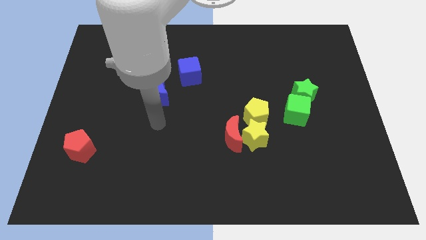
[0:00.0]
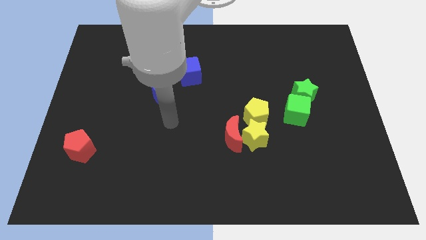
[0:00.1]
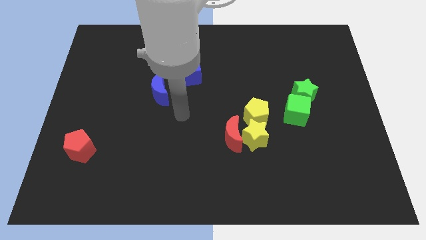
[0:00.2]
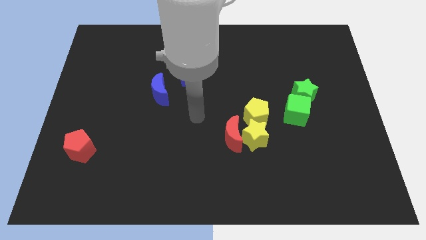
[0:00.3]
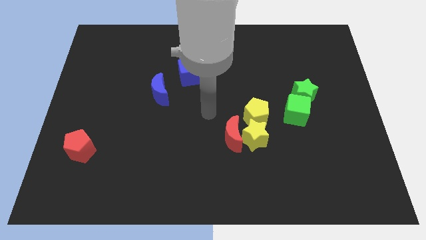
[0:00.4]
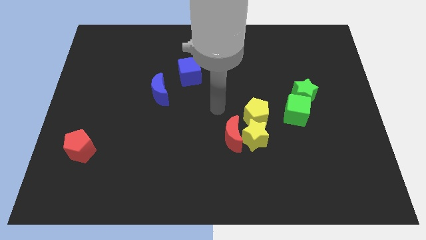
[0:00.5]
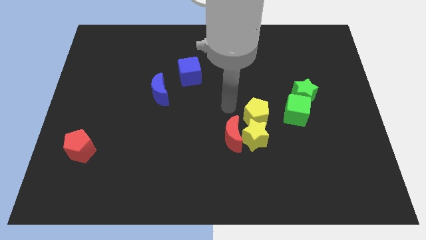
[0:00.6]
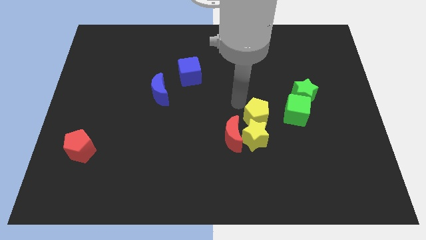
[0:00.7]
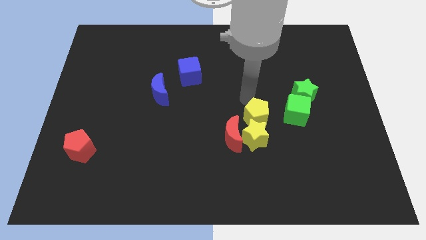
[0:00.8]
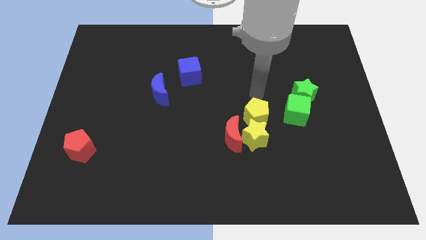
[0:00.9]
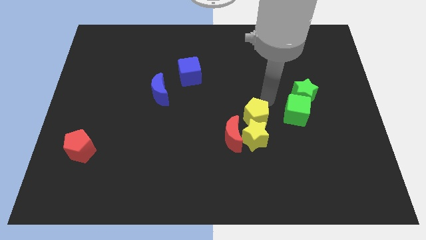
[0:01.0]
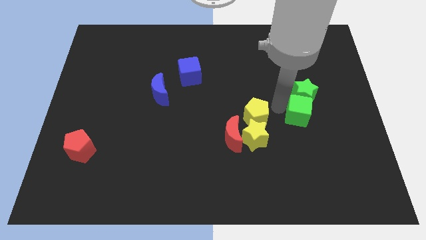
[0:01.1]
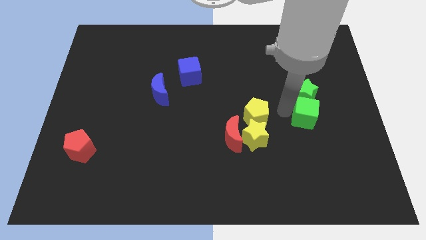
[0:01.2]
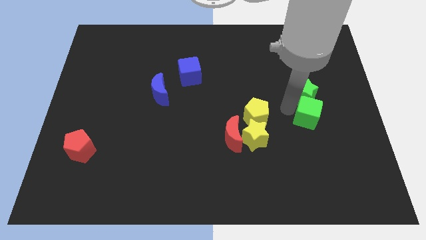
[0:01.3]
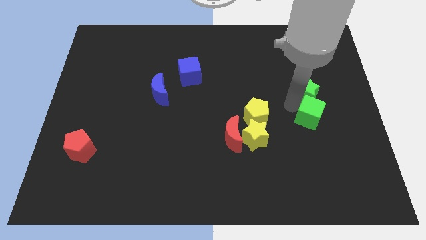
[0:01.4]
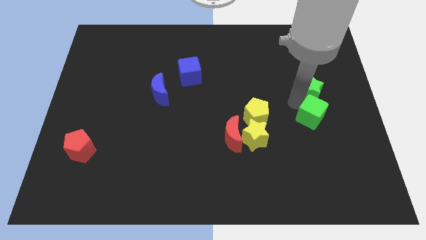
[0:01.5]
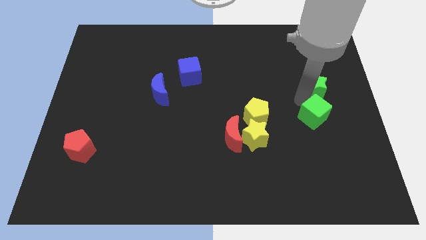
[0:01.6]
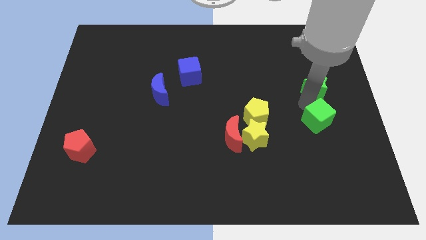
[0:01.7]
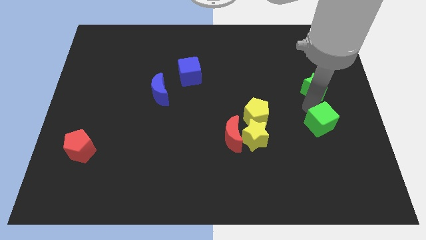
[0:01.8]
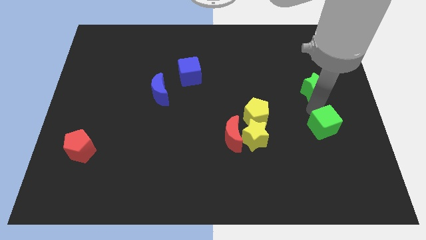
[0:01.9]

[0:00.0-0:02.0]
separate the green star from the green cube

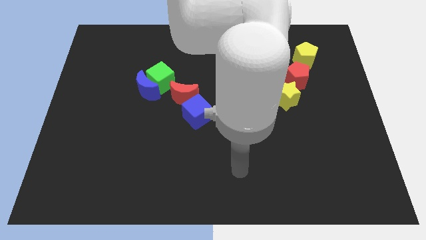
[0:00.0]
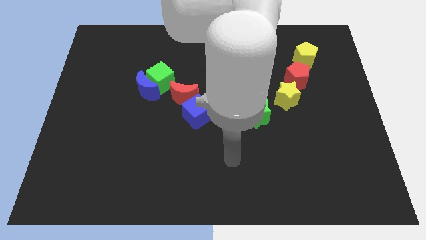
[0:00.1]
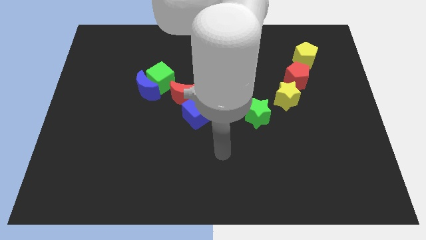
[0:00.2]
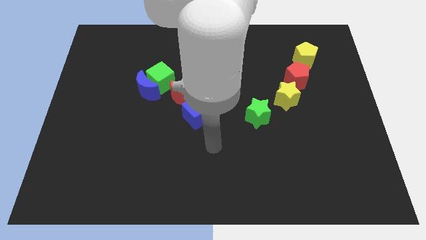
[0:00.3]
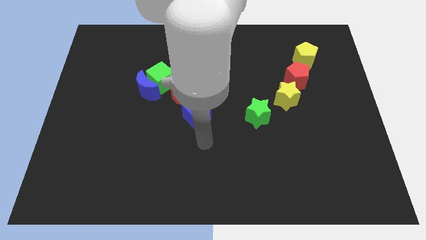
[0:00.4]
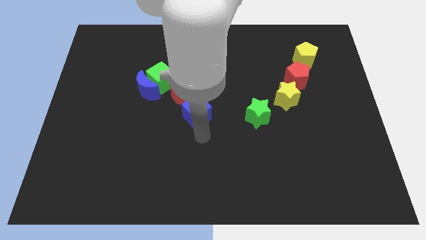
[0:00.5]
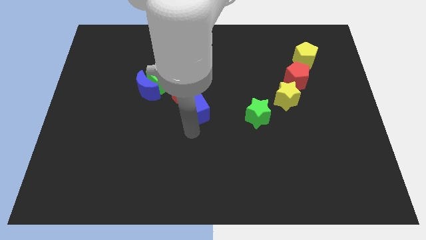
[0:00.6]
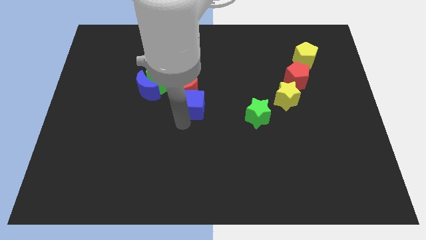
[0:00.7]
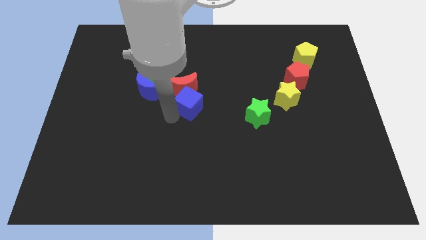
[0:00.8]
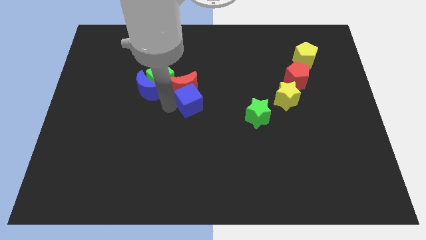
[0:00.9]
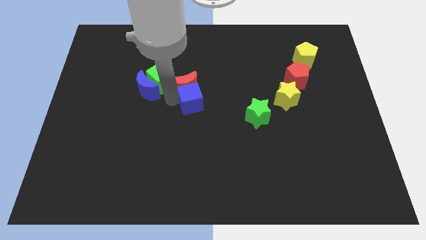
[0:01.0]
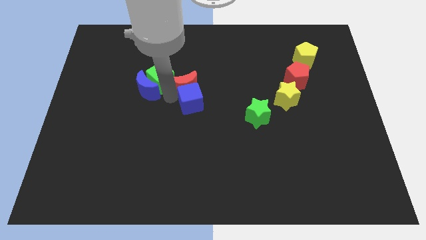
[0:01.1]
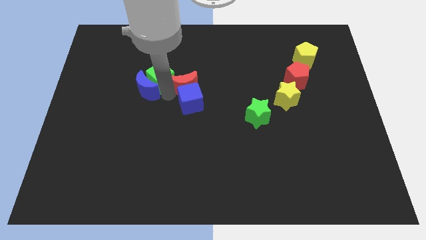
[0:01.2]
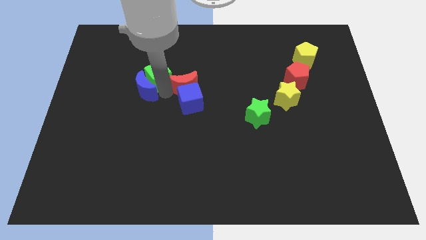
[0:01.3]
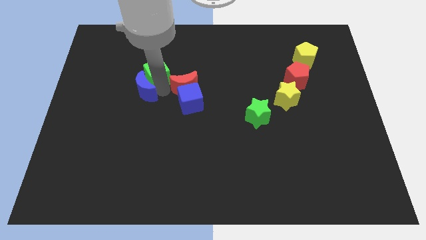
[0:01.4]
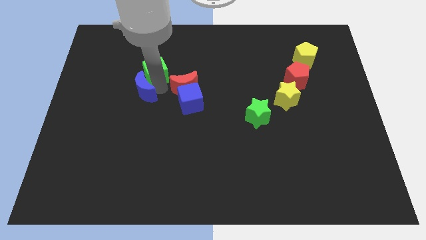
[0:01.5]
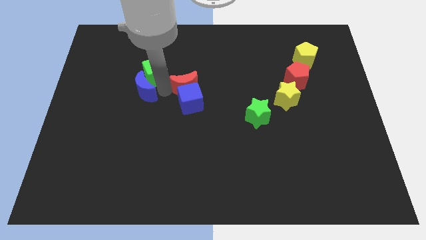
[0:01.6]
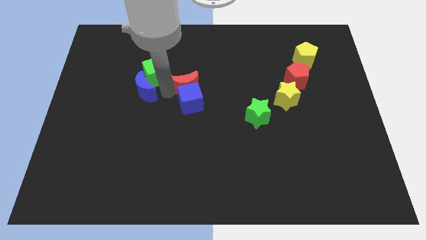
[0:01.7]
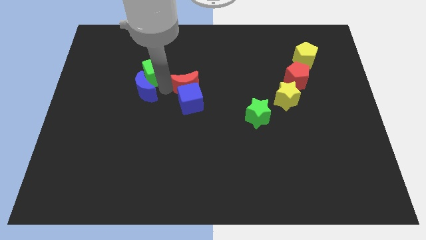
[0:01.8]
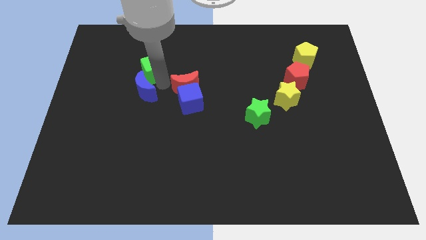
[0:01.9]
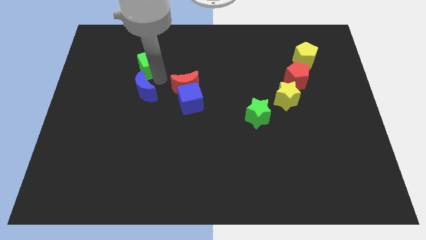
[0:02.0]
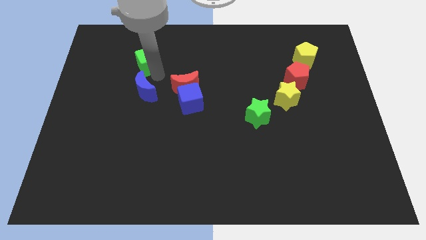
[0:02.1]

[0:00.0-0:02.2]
pull the green cube apart from the blue moon and red moon

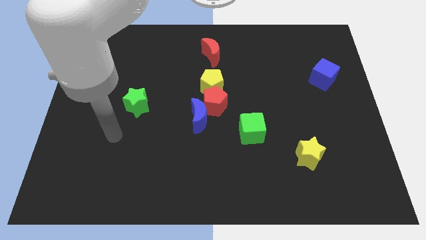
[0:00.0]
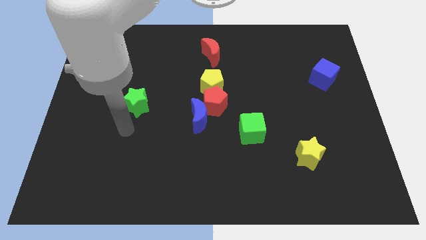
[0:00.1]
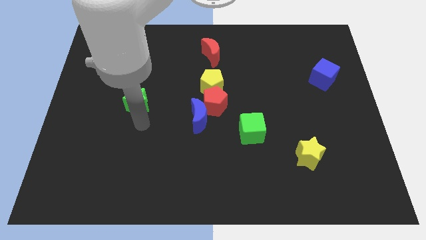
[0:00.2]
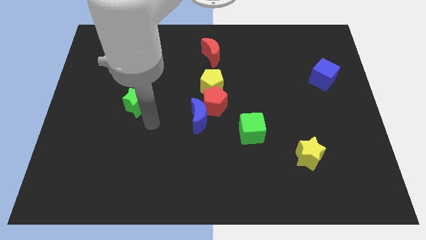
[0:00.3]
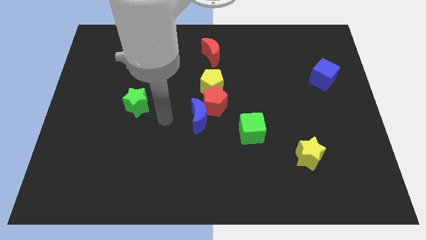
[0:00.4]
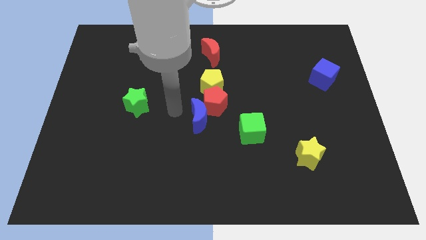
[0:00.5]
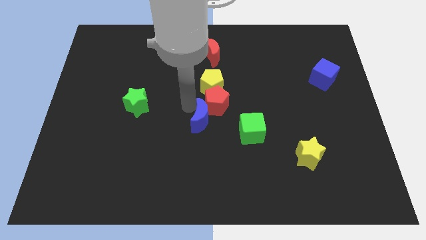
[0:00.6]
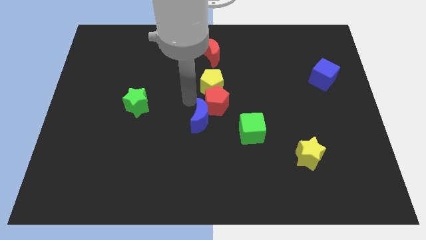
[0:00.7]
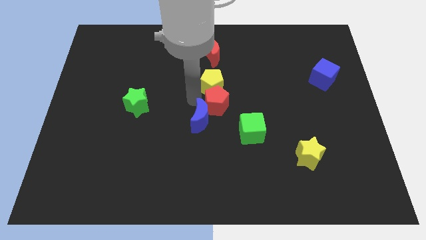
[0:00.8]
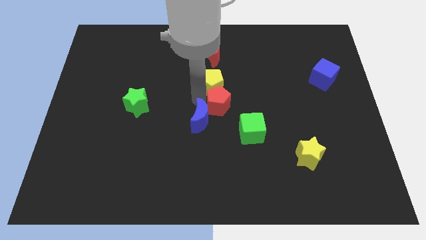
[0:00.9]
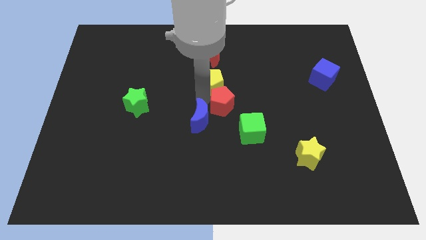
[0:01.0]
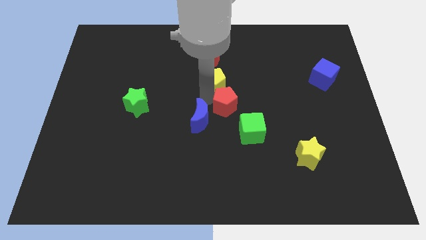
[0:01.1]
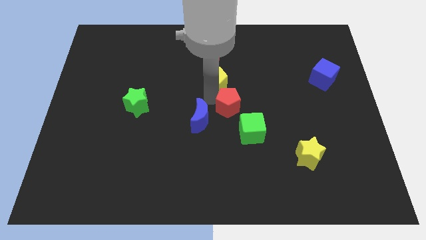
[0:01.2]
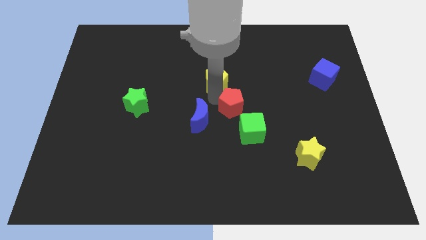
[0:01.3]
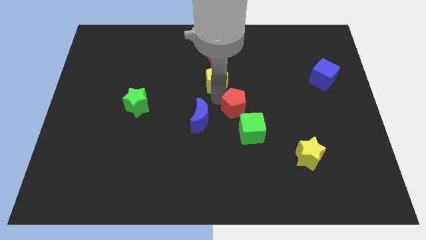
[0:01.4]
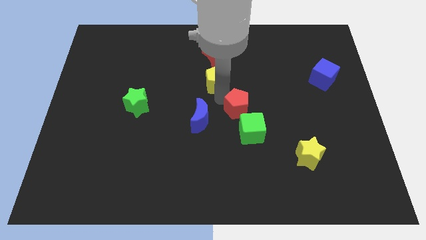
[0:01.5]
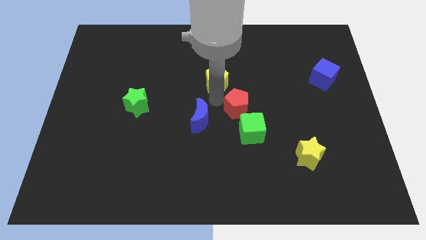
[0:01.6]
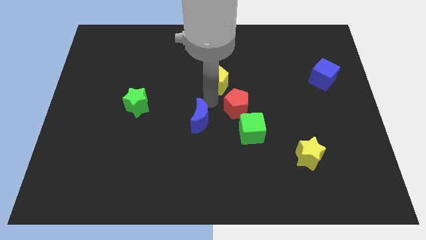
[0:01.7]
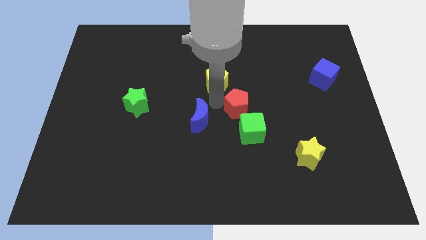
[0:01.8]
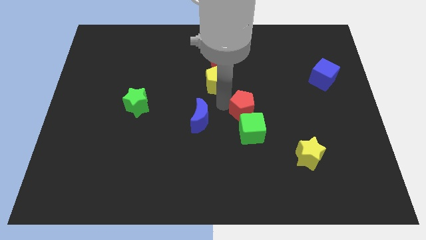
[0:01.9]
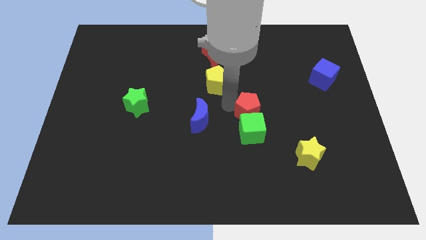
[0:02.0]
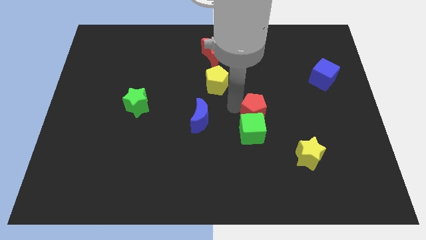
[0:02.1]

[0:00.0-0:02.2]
pull the red pentagon apart from the blue moon and yellow pentagon

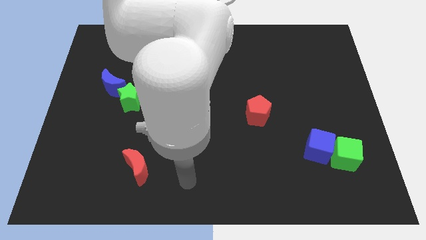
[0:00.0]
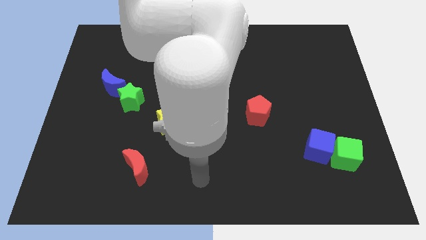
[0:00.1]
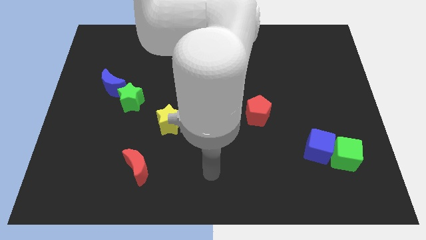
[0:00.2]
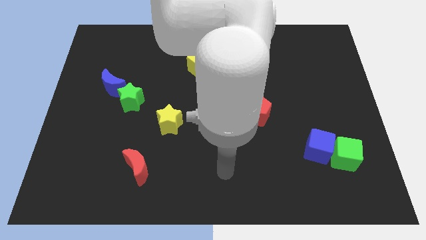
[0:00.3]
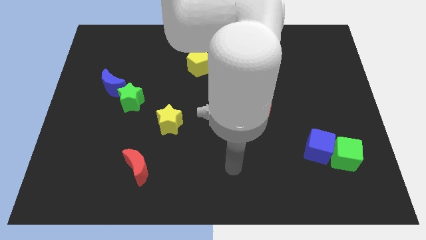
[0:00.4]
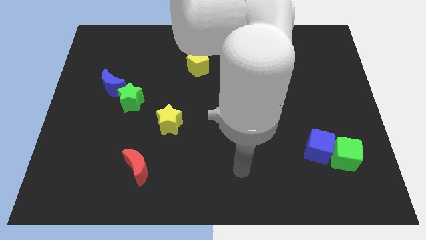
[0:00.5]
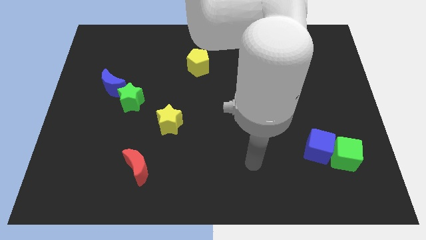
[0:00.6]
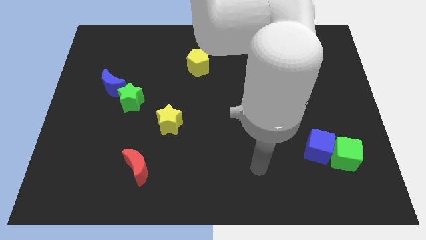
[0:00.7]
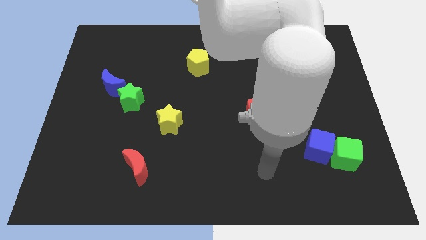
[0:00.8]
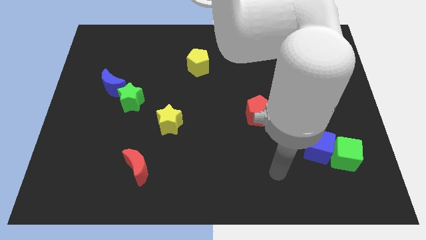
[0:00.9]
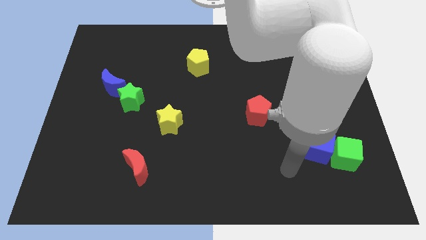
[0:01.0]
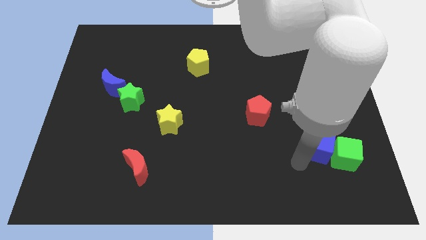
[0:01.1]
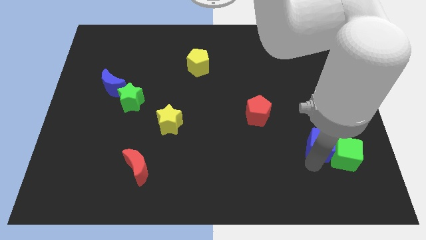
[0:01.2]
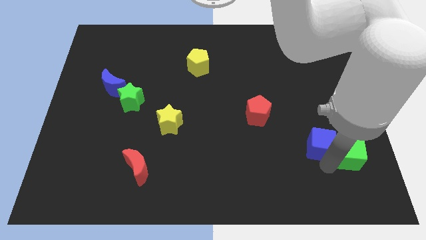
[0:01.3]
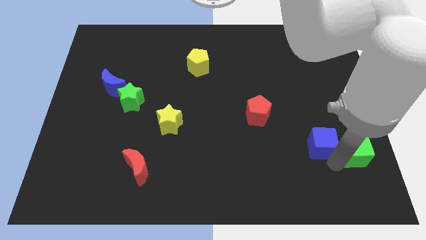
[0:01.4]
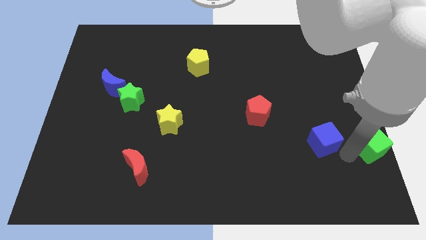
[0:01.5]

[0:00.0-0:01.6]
separate the blue cube from the green cube

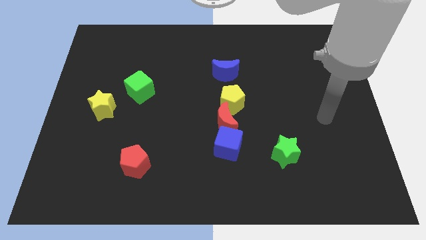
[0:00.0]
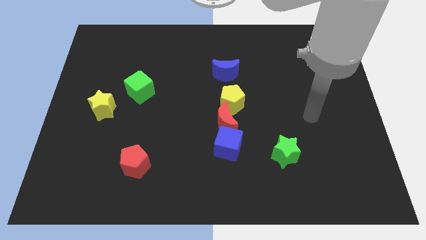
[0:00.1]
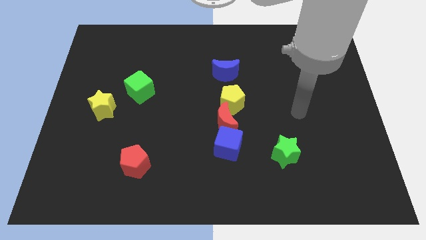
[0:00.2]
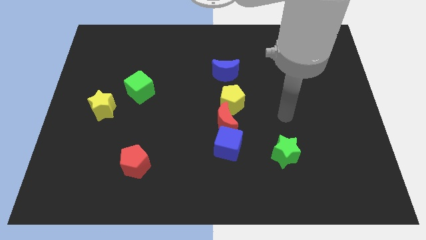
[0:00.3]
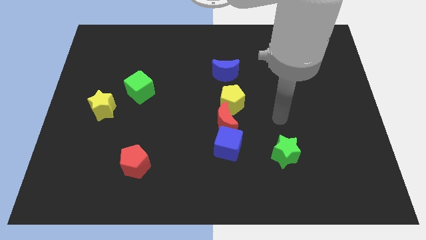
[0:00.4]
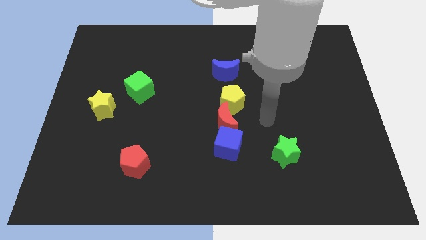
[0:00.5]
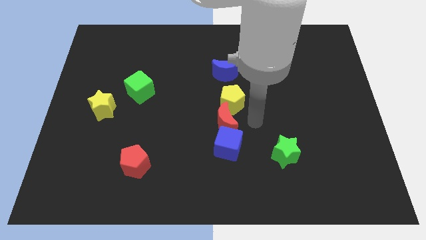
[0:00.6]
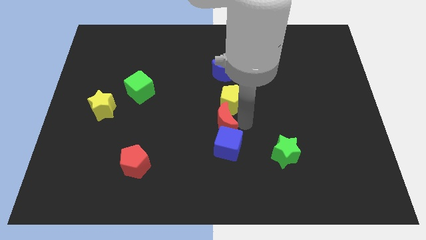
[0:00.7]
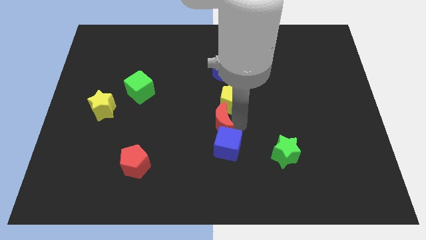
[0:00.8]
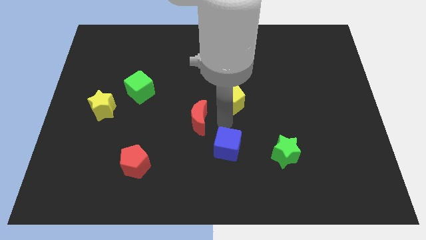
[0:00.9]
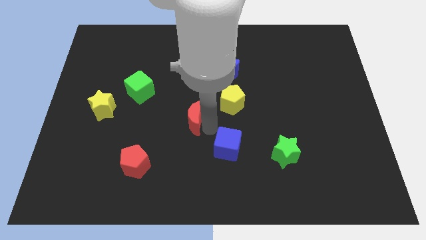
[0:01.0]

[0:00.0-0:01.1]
move the blue cube away from the red moon

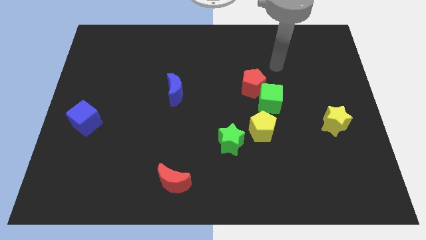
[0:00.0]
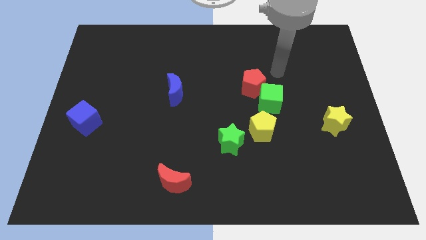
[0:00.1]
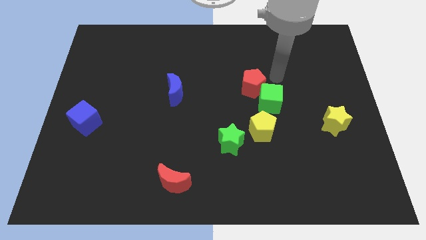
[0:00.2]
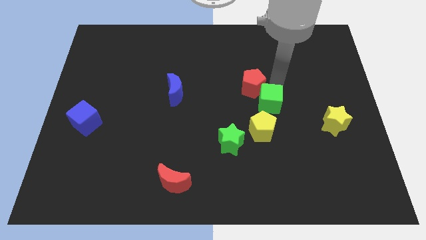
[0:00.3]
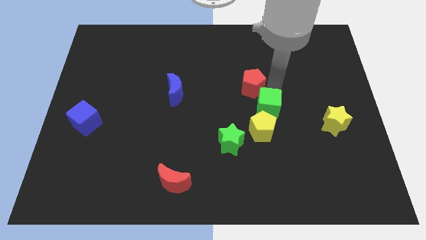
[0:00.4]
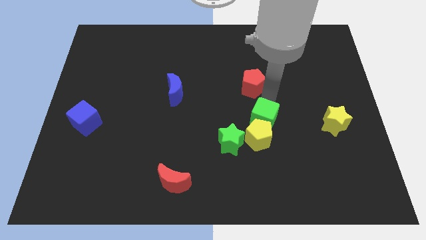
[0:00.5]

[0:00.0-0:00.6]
pull the red pentagon apart from the green cube
